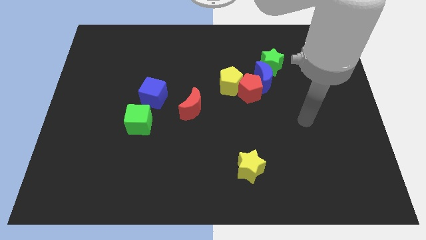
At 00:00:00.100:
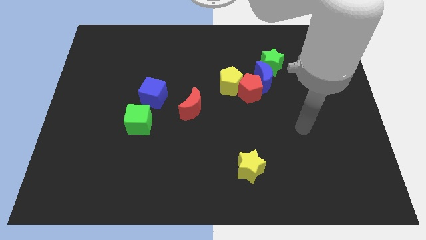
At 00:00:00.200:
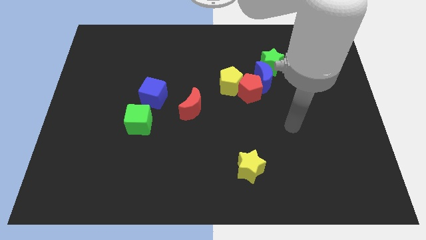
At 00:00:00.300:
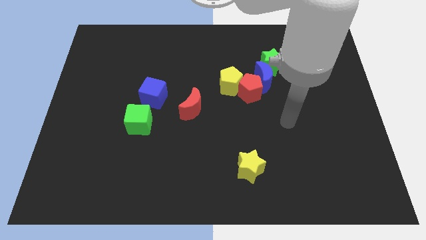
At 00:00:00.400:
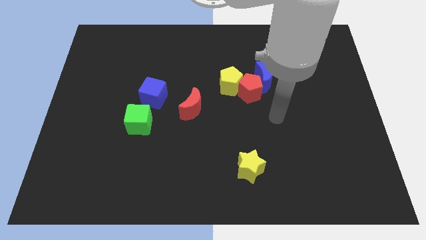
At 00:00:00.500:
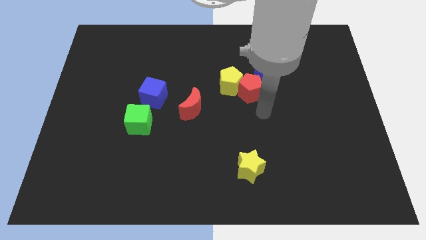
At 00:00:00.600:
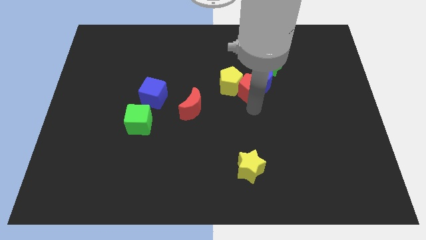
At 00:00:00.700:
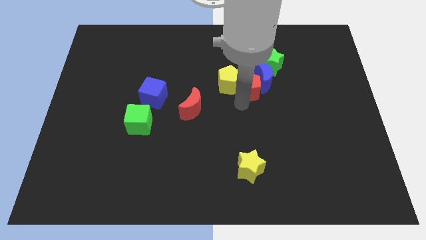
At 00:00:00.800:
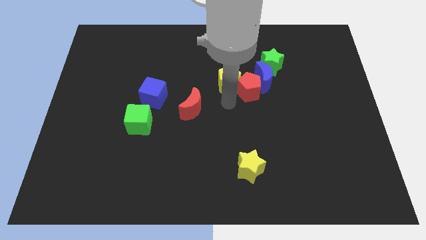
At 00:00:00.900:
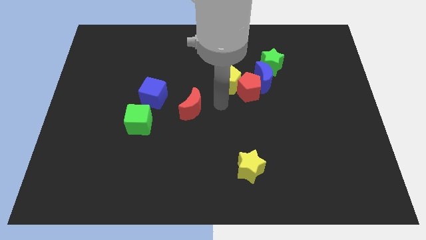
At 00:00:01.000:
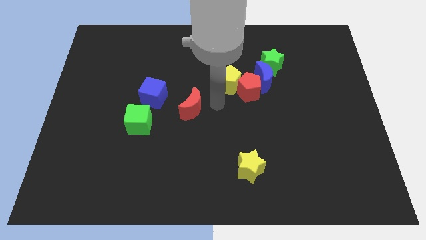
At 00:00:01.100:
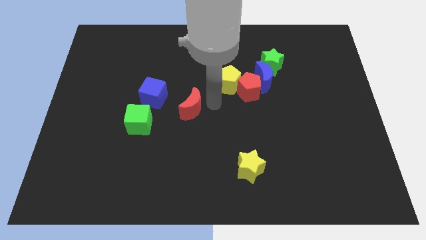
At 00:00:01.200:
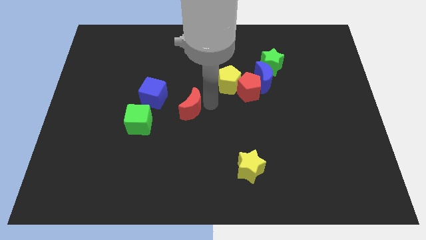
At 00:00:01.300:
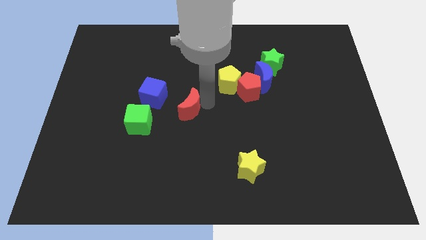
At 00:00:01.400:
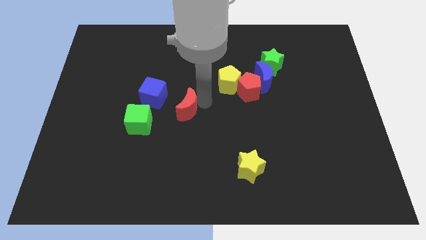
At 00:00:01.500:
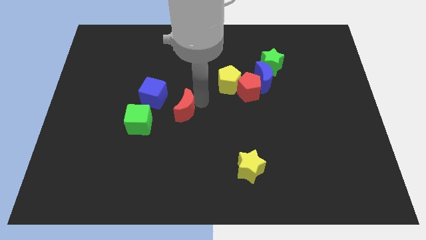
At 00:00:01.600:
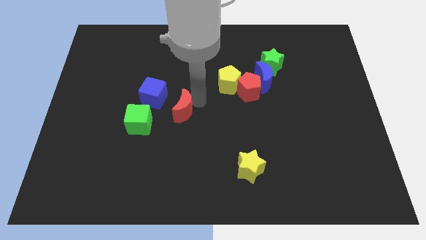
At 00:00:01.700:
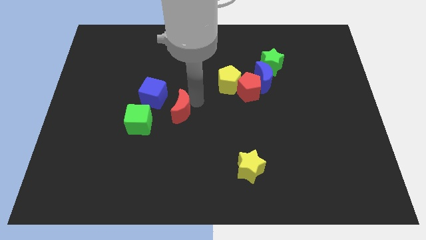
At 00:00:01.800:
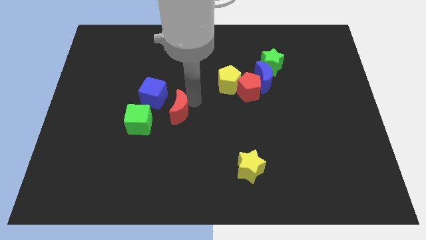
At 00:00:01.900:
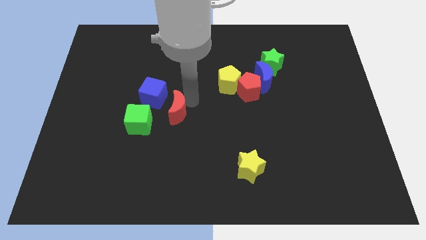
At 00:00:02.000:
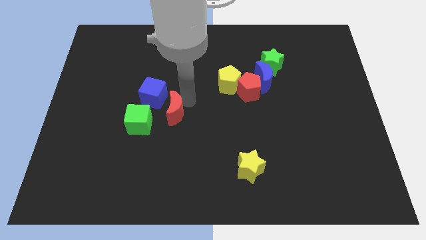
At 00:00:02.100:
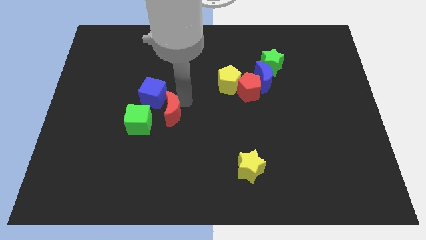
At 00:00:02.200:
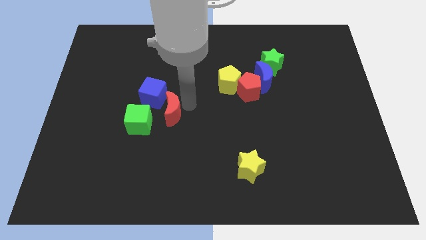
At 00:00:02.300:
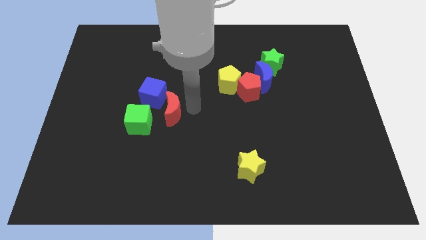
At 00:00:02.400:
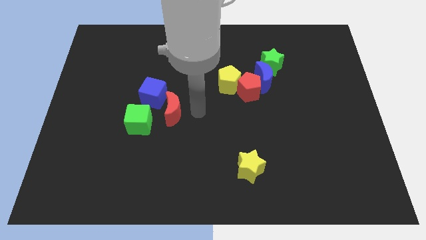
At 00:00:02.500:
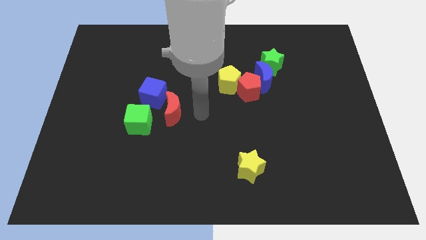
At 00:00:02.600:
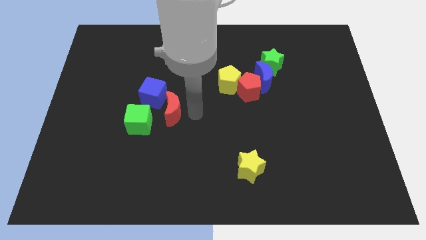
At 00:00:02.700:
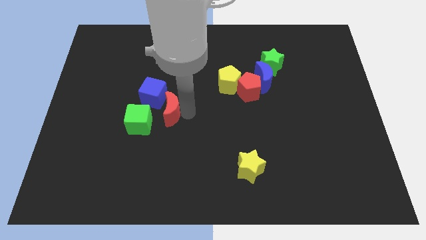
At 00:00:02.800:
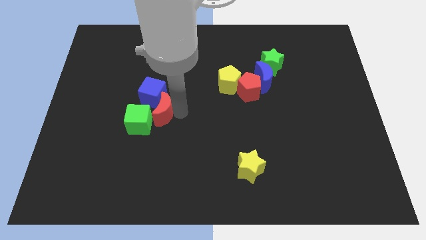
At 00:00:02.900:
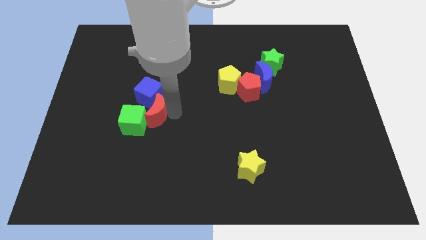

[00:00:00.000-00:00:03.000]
push the red moon a bit to the left

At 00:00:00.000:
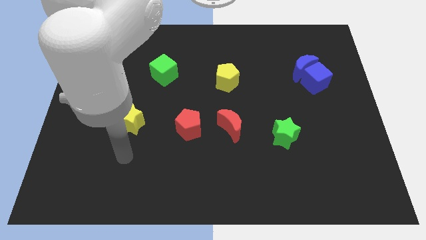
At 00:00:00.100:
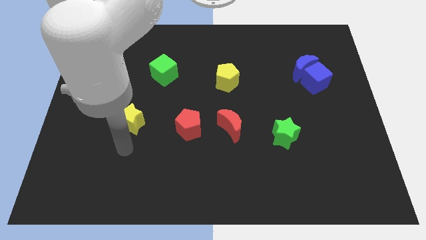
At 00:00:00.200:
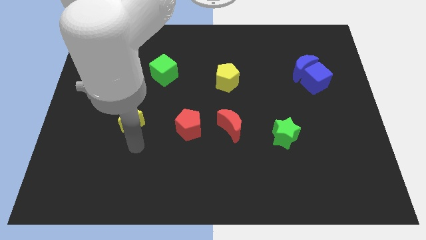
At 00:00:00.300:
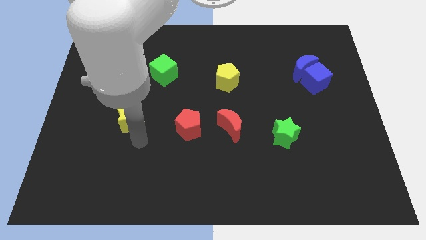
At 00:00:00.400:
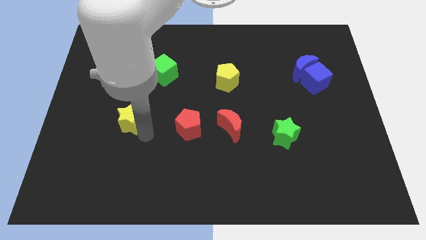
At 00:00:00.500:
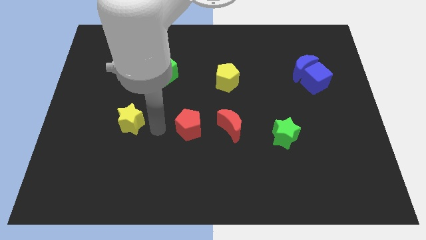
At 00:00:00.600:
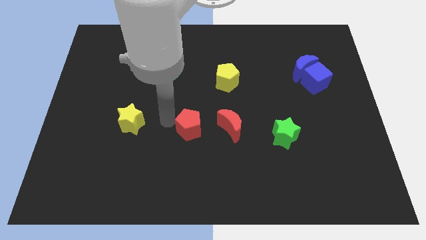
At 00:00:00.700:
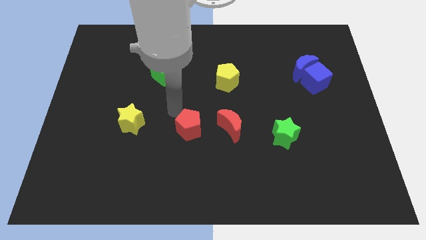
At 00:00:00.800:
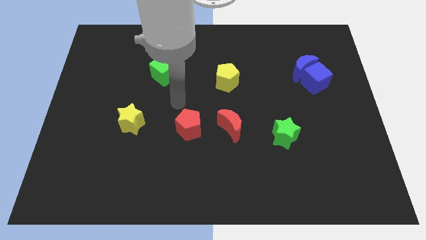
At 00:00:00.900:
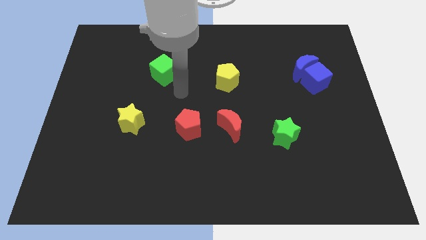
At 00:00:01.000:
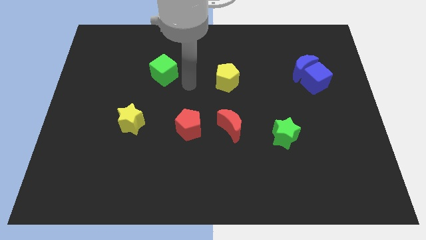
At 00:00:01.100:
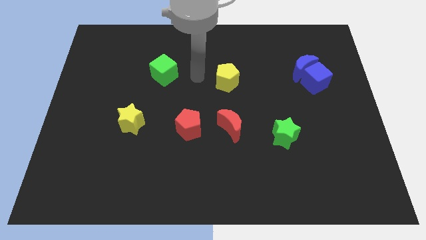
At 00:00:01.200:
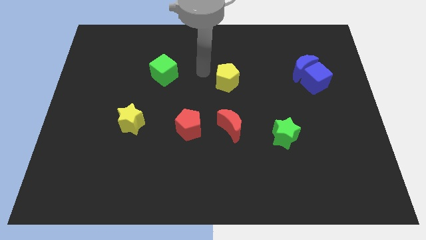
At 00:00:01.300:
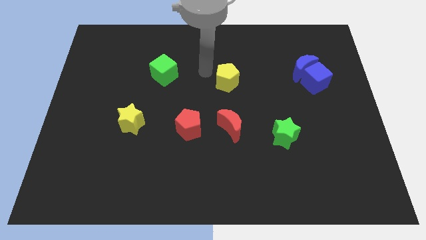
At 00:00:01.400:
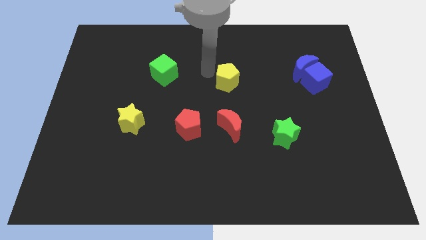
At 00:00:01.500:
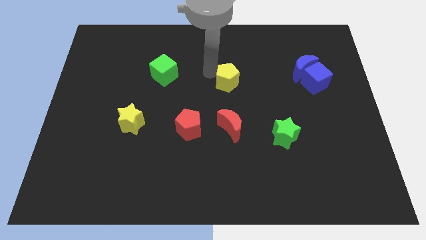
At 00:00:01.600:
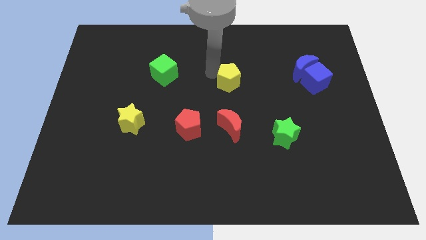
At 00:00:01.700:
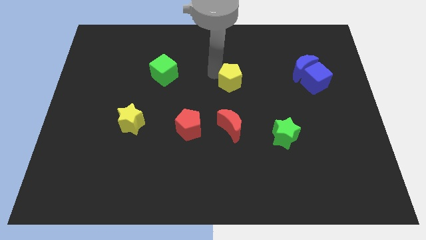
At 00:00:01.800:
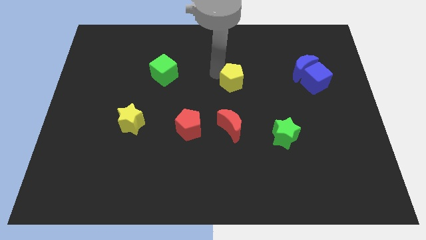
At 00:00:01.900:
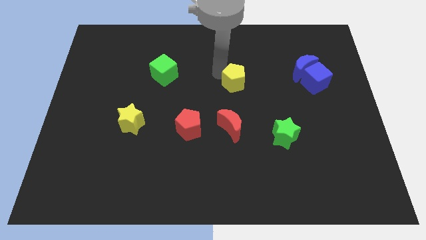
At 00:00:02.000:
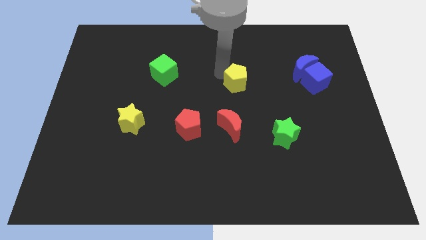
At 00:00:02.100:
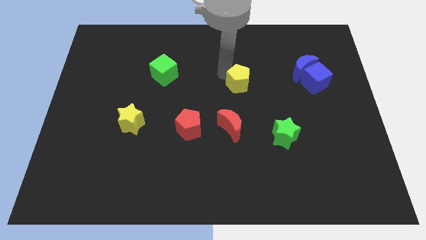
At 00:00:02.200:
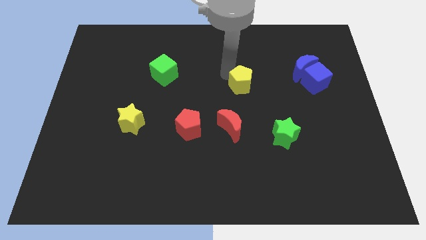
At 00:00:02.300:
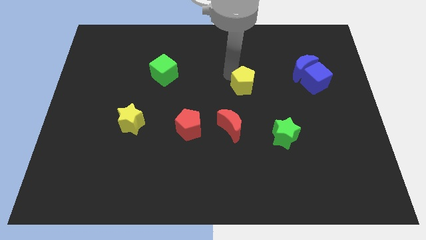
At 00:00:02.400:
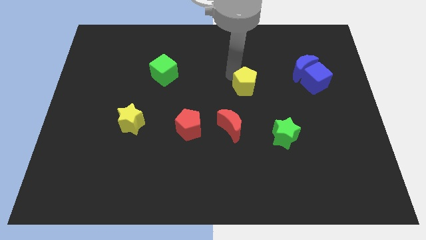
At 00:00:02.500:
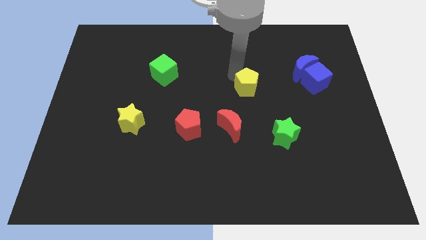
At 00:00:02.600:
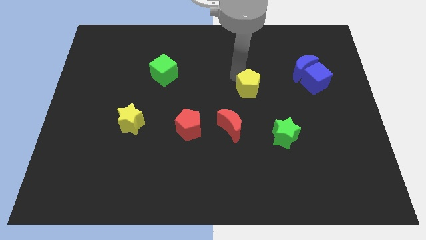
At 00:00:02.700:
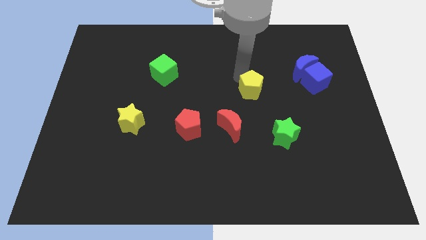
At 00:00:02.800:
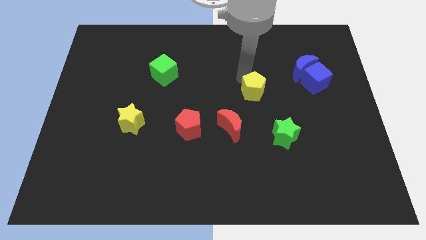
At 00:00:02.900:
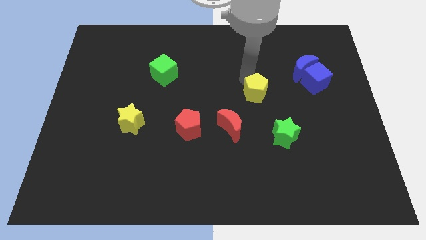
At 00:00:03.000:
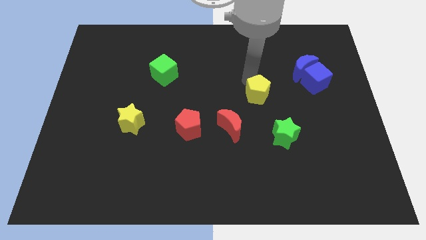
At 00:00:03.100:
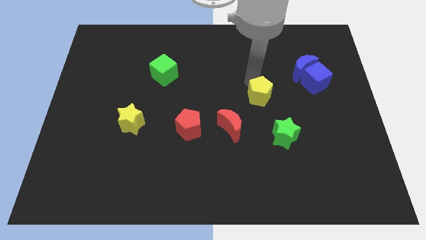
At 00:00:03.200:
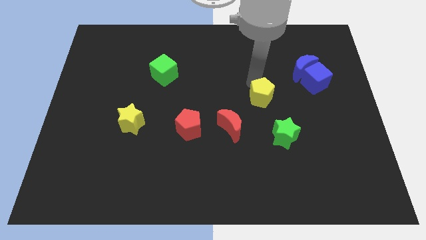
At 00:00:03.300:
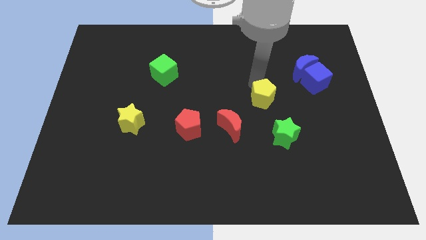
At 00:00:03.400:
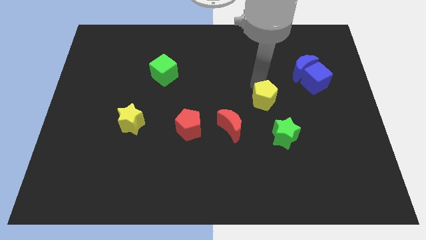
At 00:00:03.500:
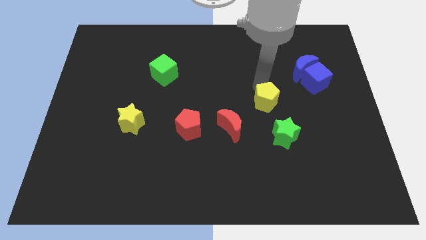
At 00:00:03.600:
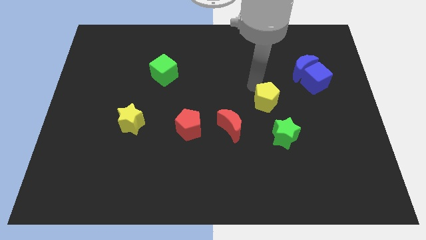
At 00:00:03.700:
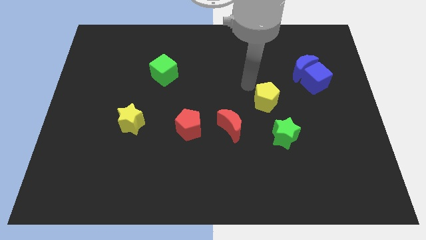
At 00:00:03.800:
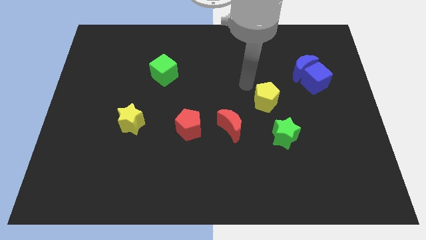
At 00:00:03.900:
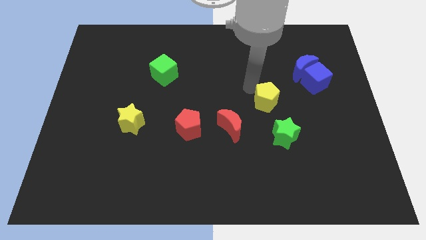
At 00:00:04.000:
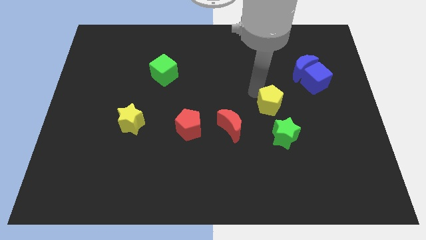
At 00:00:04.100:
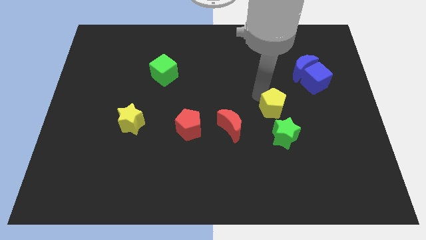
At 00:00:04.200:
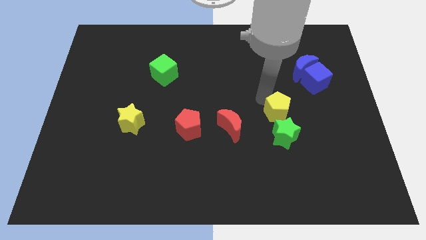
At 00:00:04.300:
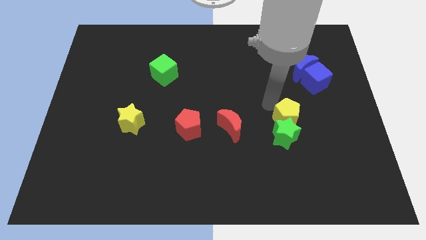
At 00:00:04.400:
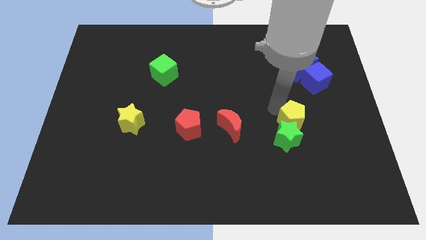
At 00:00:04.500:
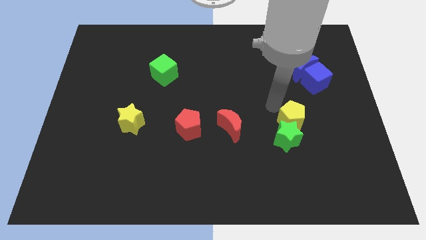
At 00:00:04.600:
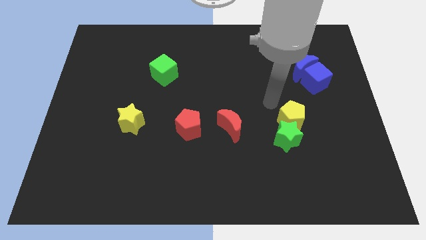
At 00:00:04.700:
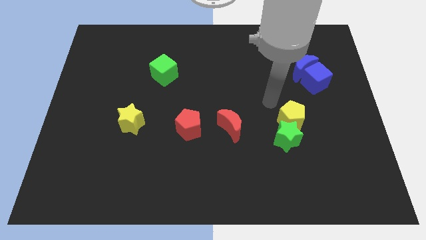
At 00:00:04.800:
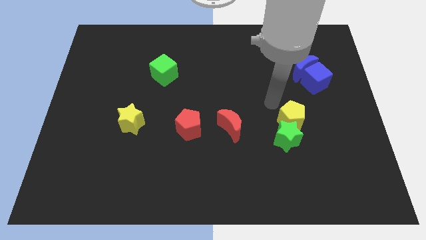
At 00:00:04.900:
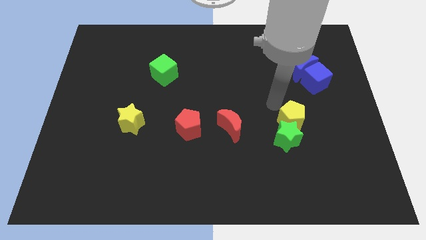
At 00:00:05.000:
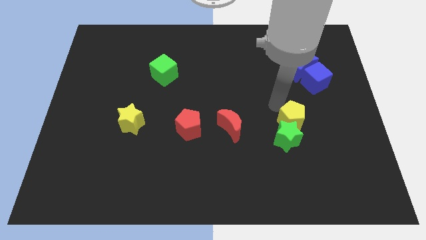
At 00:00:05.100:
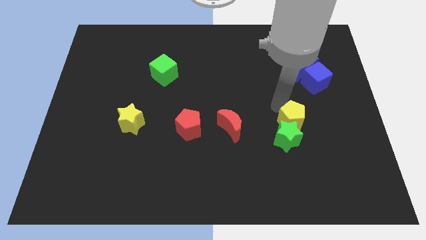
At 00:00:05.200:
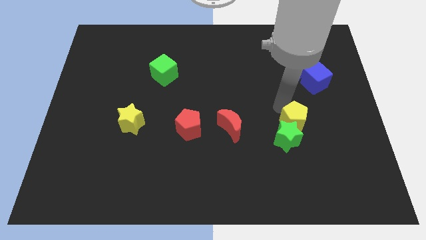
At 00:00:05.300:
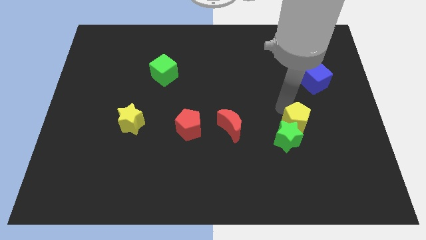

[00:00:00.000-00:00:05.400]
move the yellow pentagon downwards and then to the right
